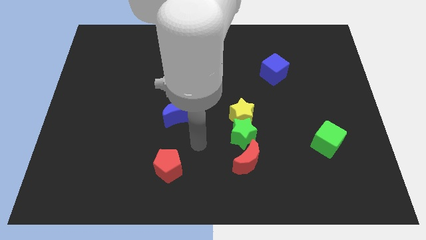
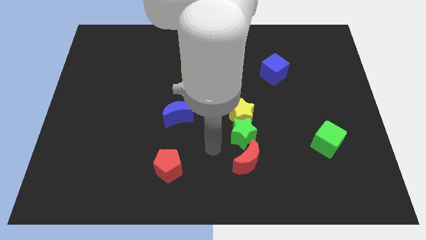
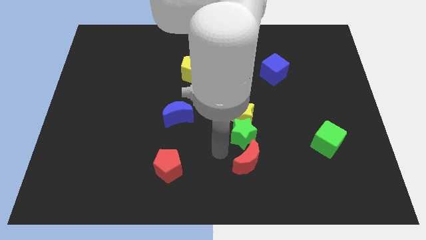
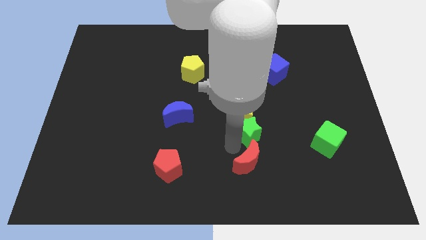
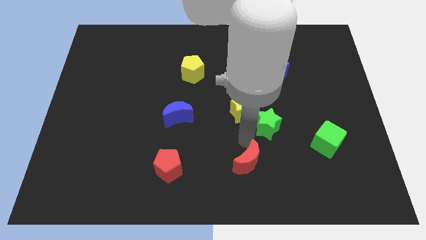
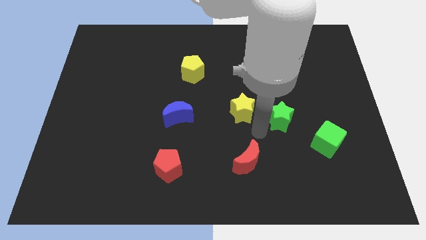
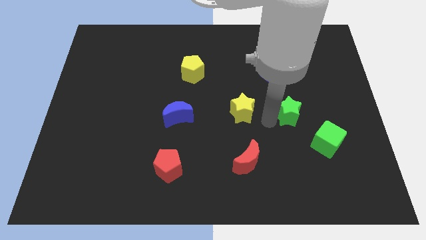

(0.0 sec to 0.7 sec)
separate the yellow star from the green star

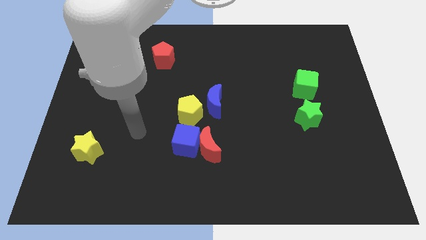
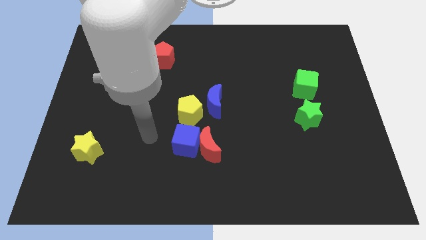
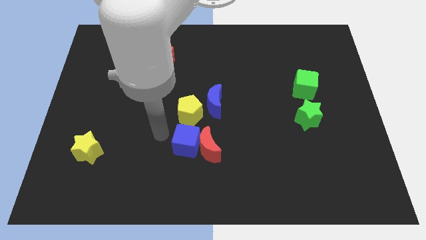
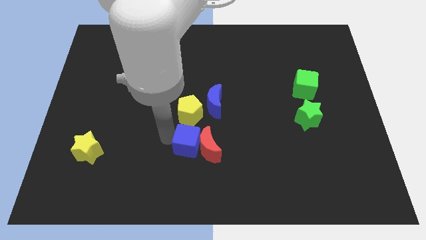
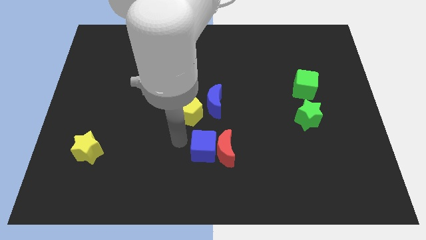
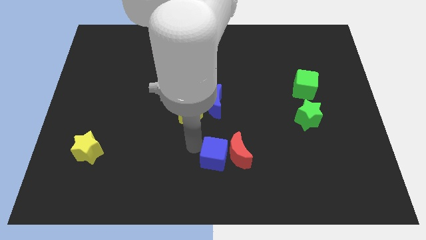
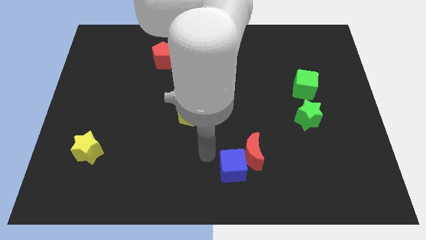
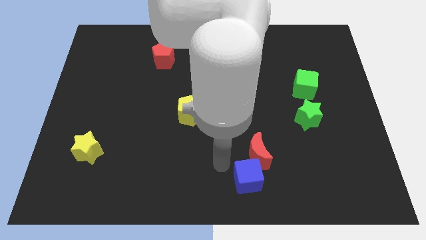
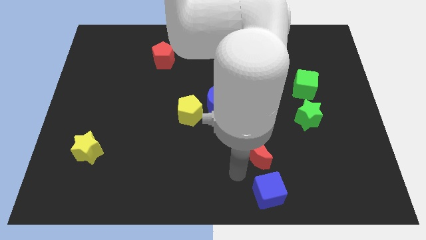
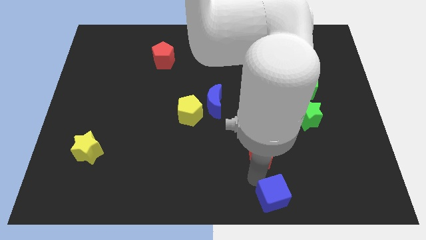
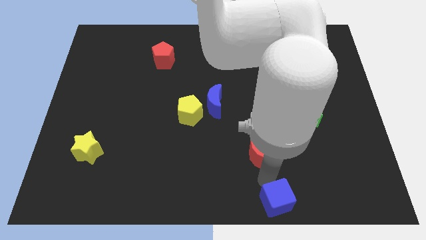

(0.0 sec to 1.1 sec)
separate the red moon from the blue cube

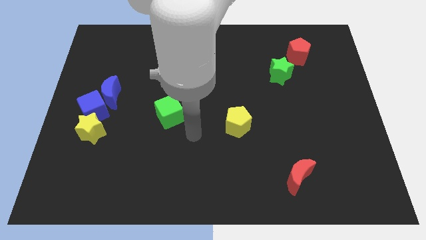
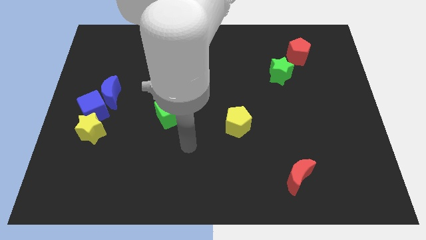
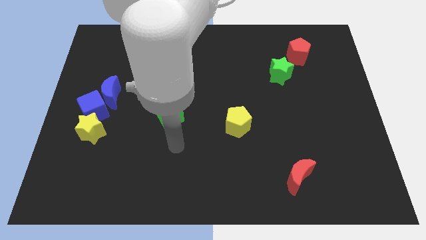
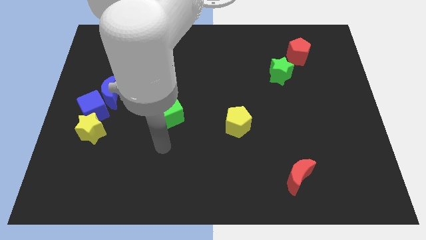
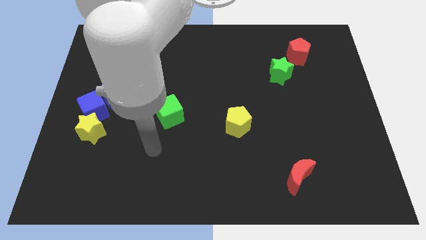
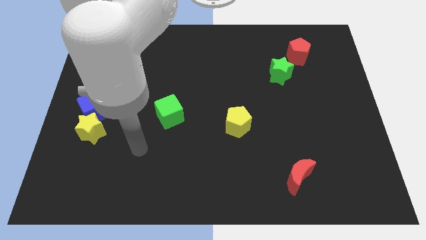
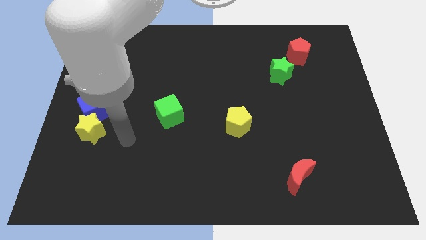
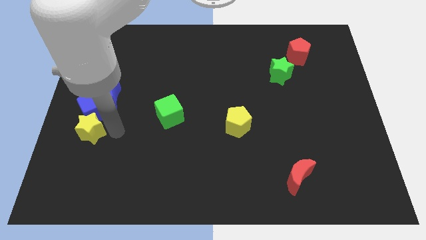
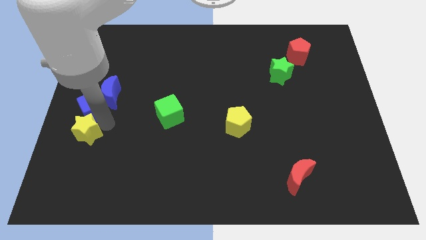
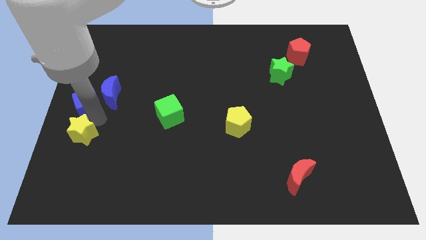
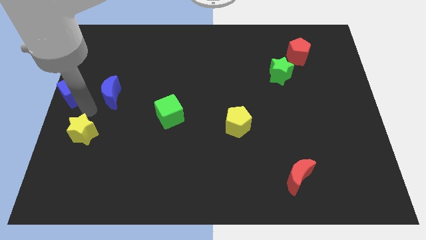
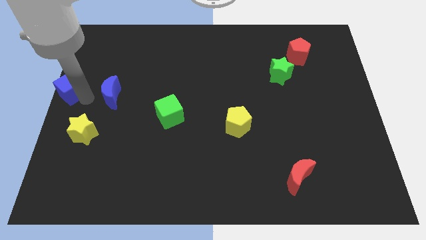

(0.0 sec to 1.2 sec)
separate the blue moon from the blue cube

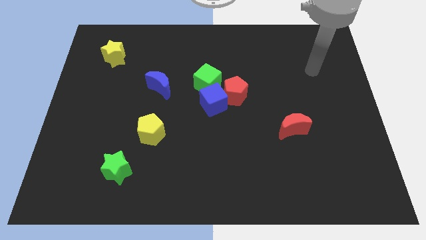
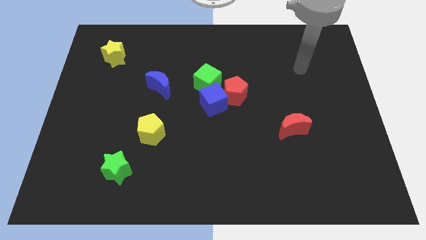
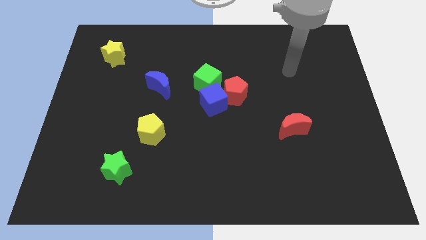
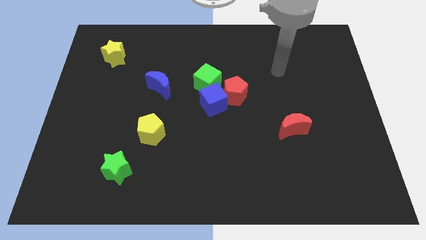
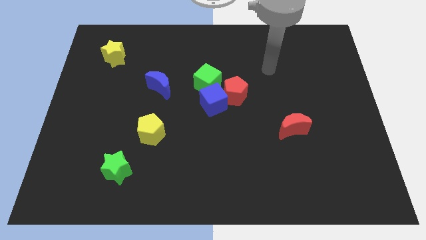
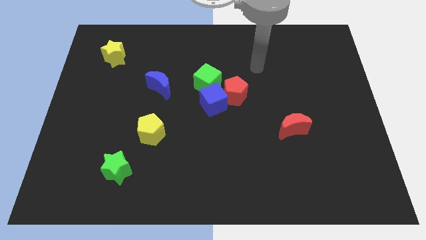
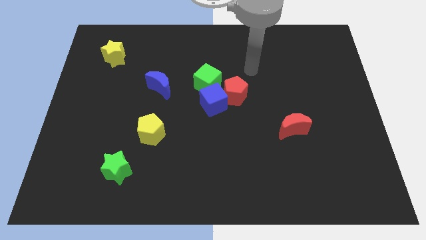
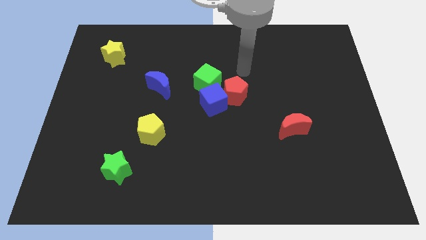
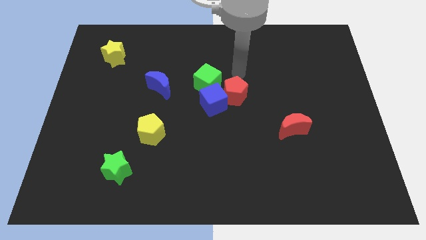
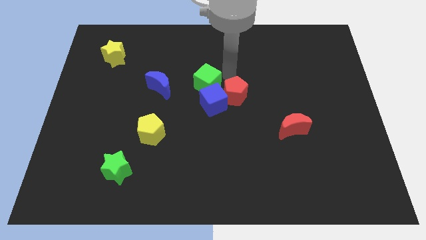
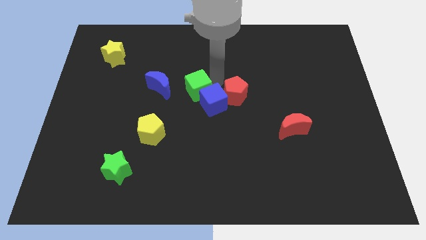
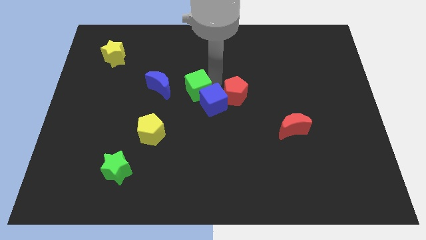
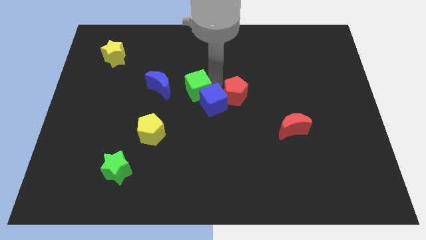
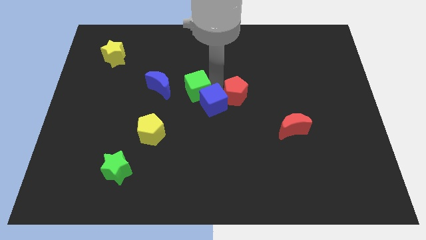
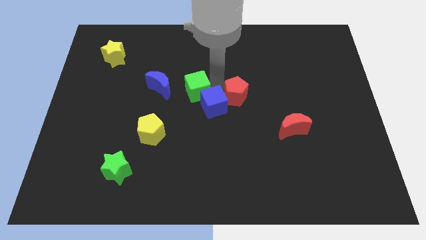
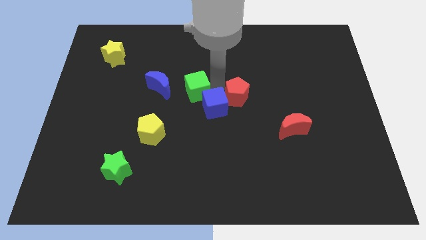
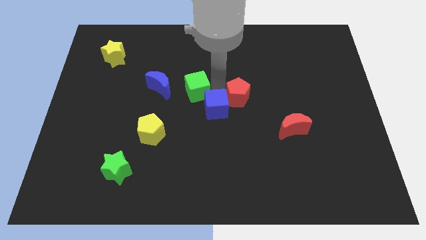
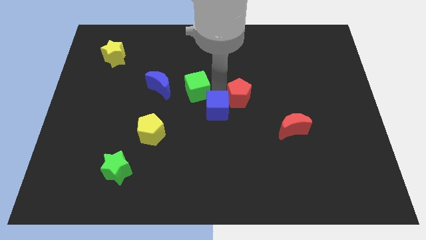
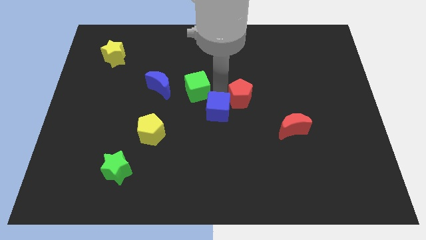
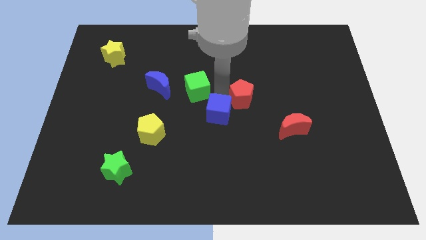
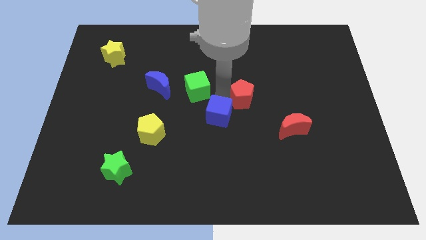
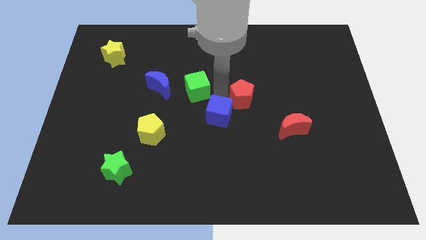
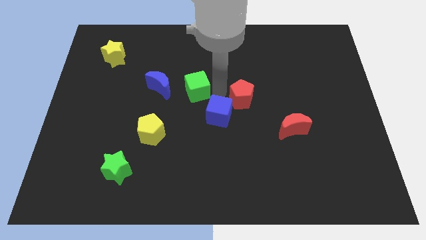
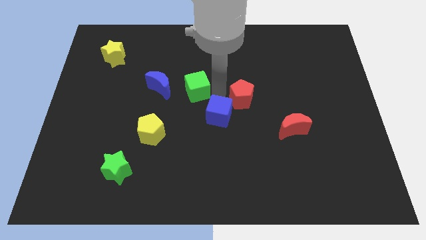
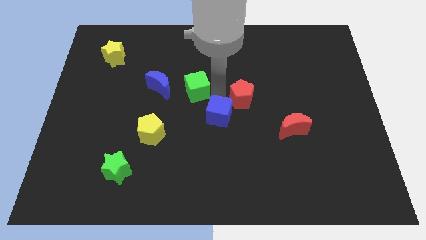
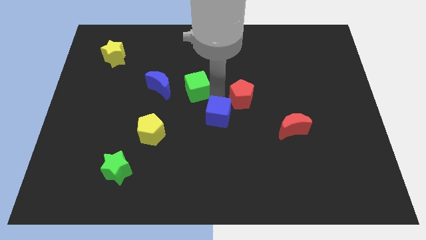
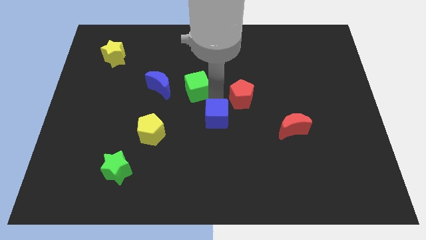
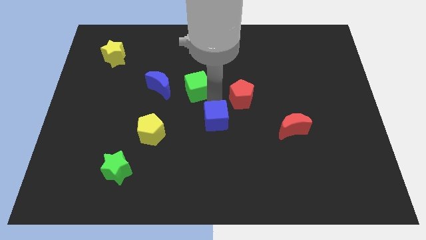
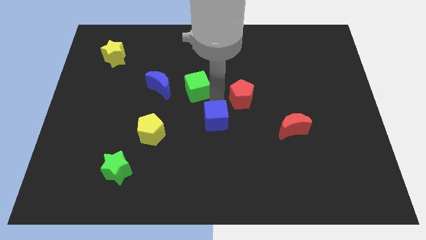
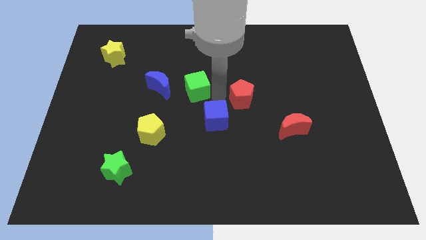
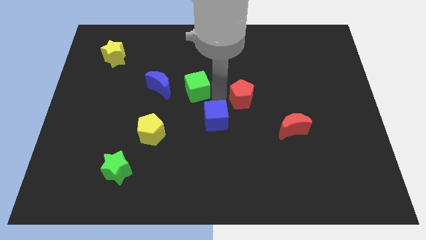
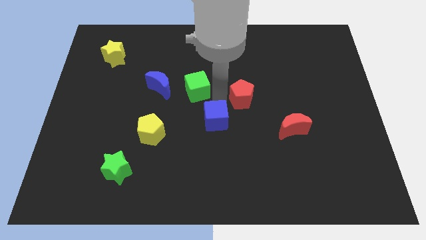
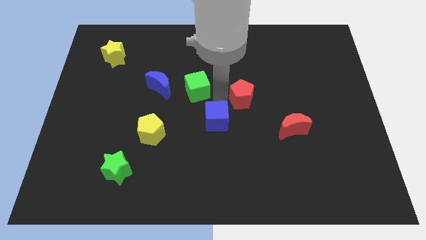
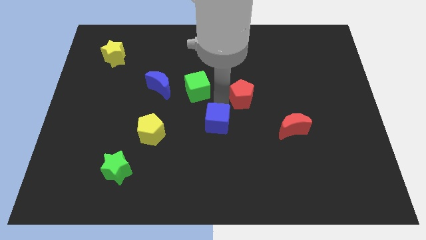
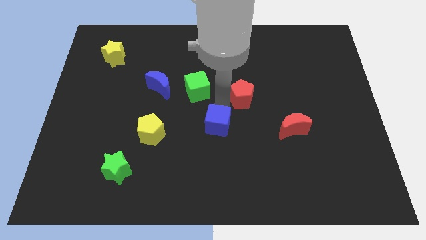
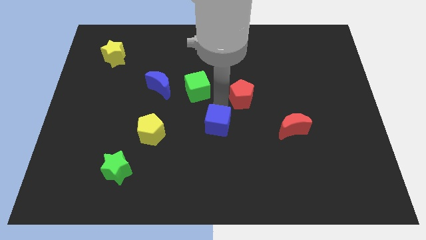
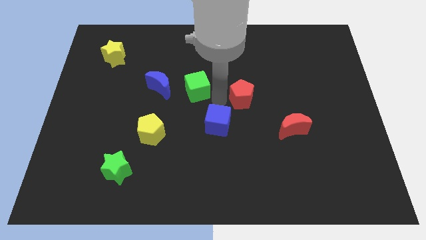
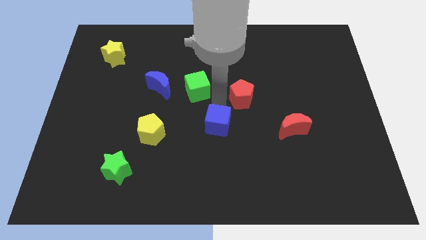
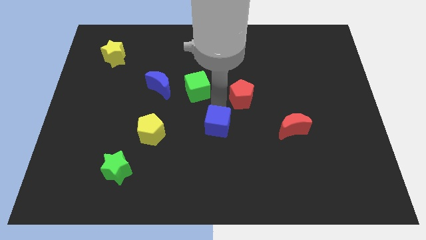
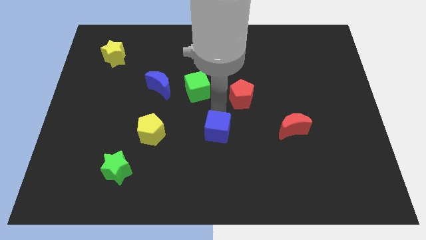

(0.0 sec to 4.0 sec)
move the blue cube away from the red pentagon and green cube

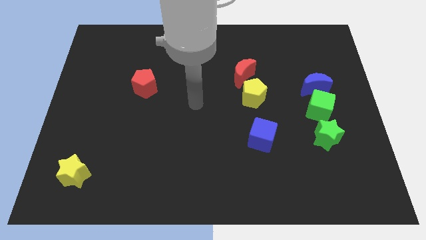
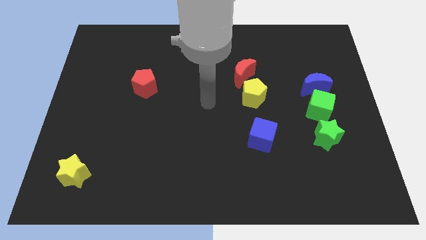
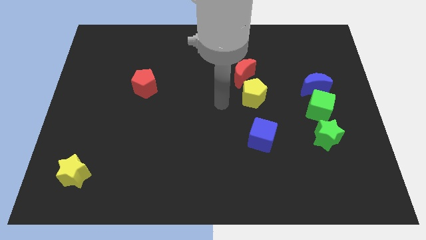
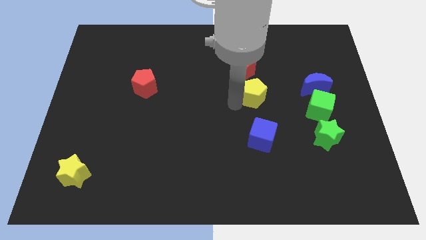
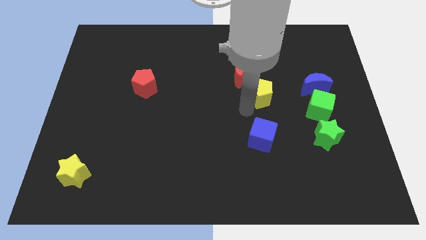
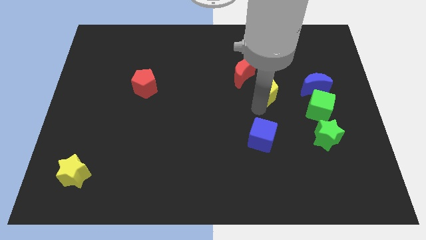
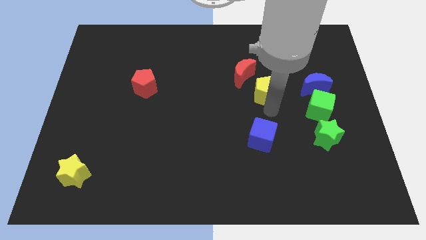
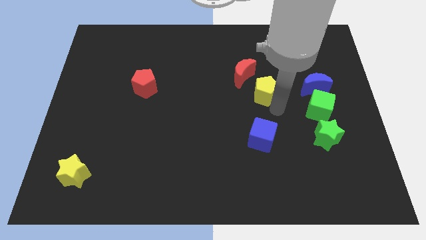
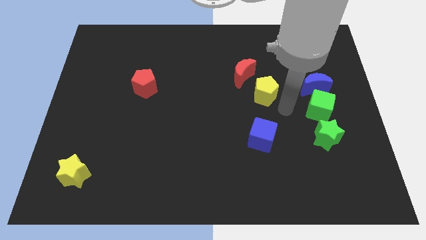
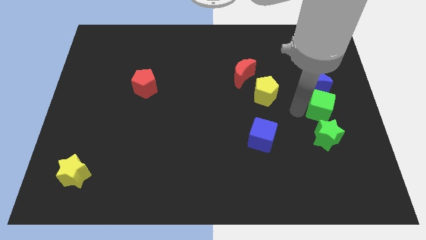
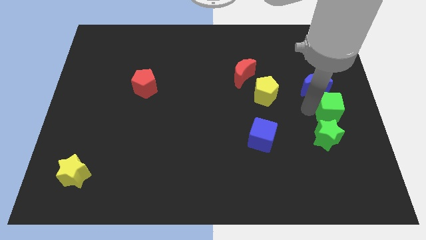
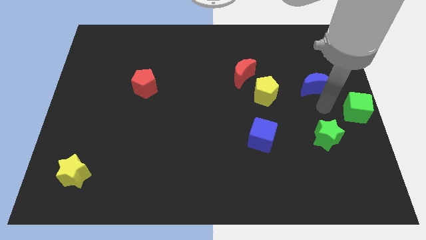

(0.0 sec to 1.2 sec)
move the blue moon away from the green cube

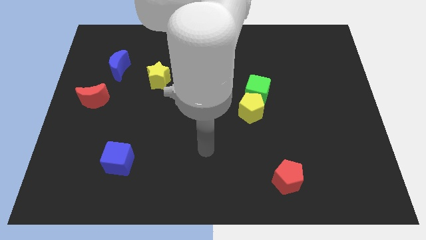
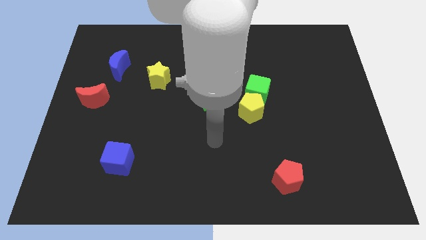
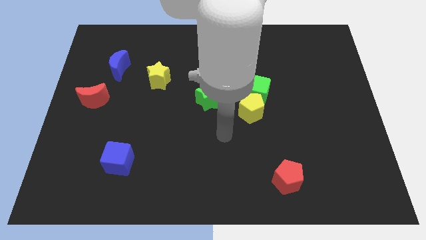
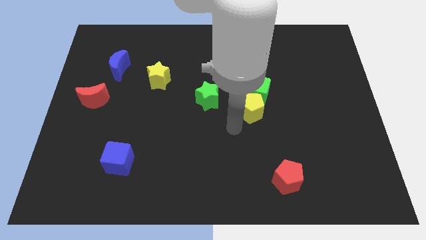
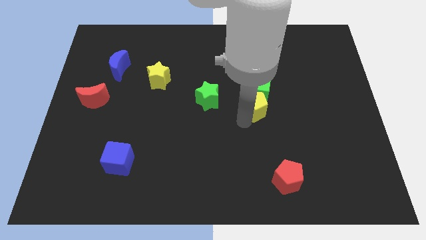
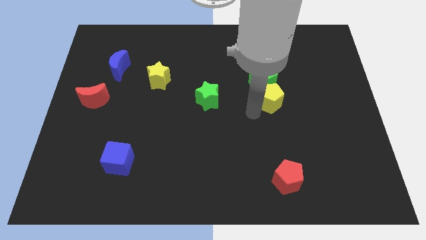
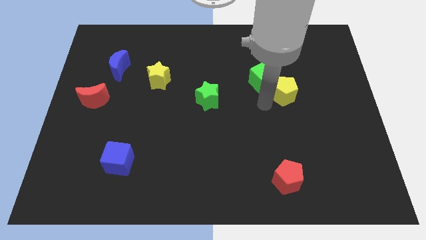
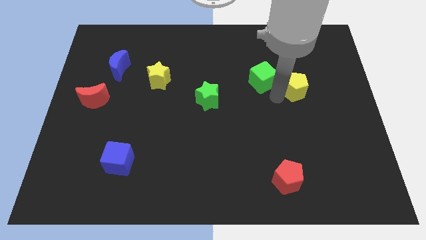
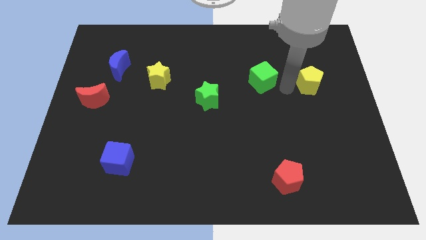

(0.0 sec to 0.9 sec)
pull the green cube apart from the yellow pentagon

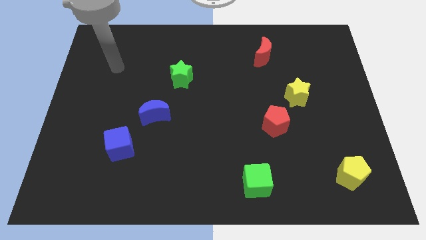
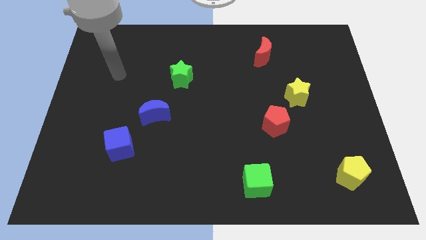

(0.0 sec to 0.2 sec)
separate the red pentagon from the yellow star
